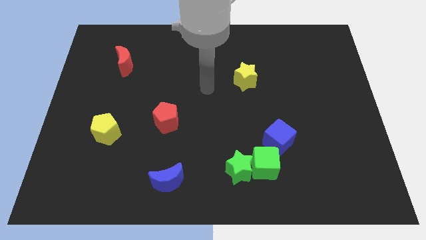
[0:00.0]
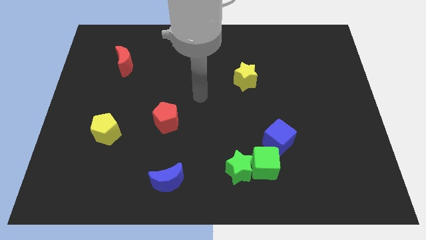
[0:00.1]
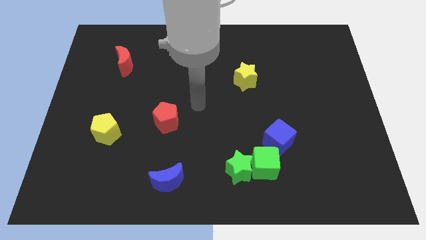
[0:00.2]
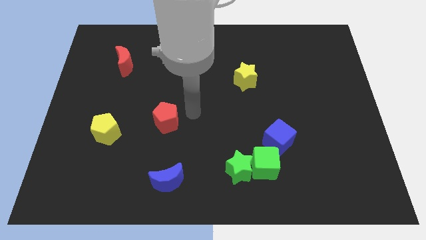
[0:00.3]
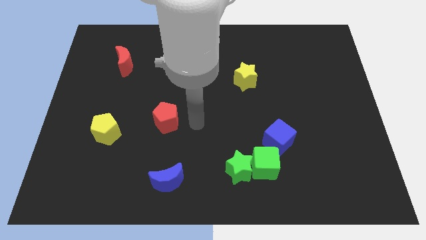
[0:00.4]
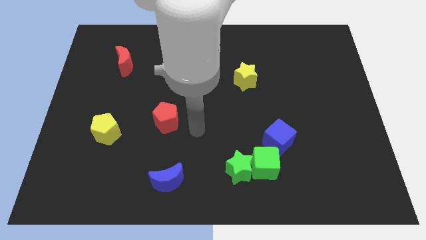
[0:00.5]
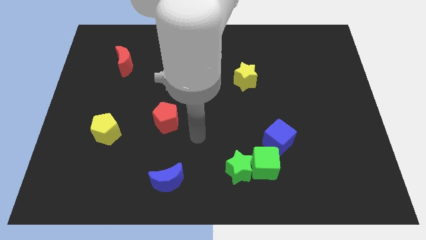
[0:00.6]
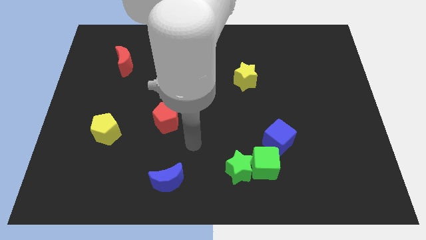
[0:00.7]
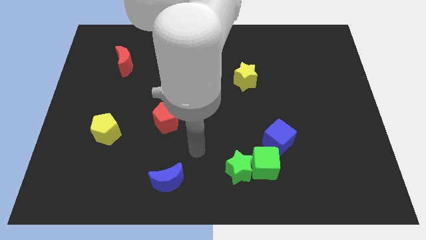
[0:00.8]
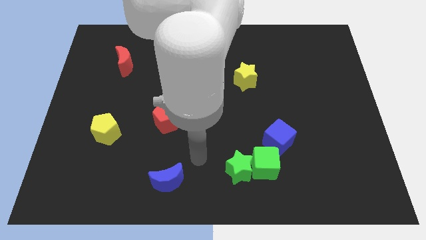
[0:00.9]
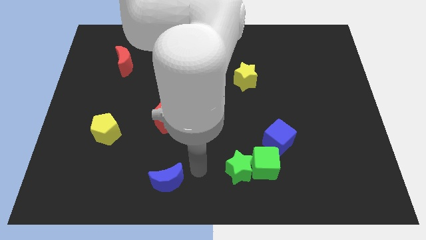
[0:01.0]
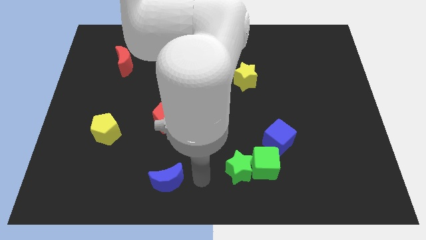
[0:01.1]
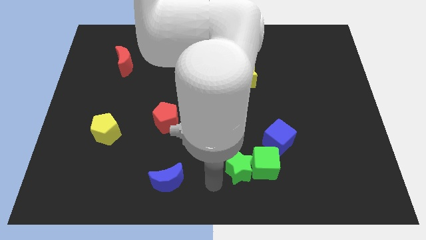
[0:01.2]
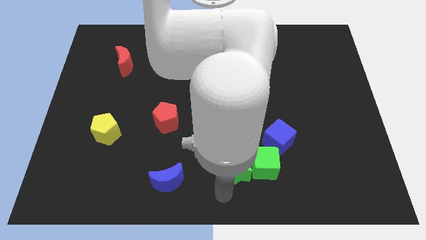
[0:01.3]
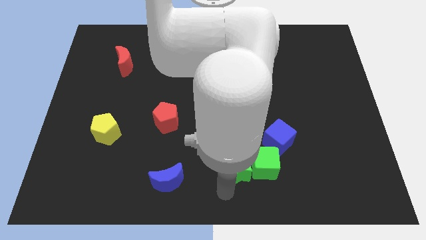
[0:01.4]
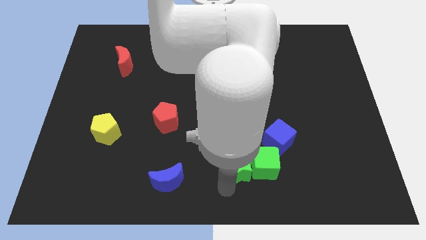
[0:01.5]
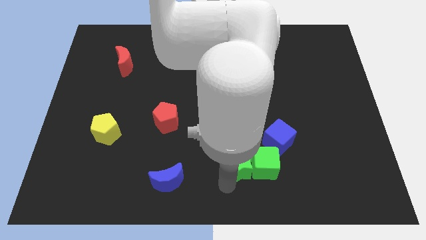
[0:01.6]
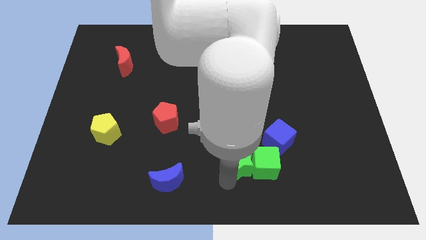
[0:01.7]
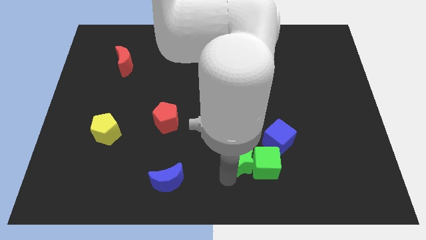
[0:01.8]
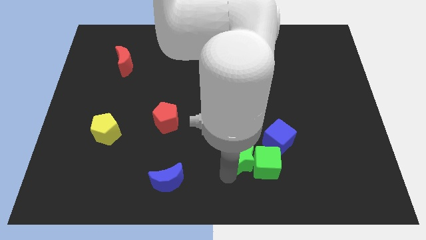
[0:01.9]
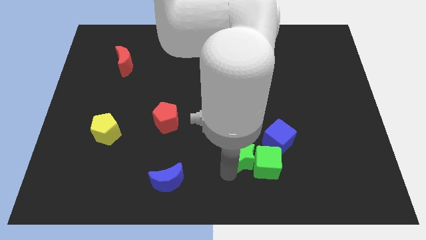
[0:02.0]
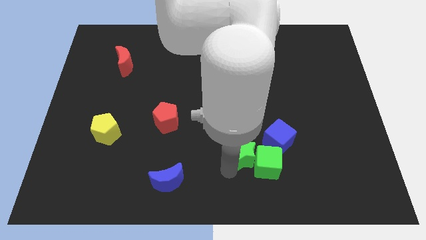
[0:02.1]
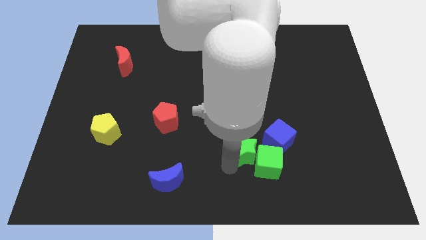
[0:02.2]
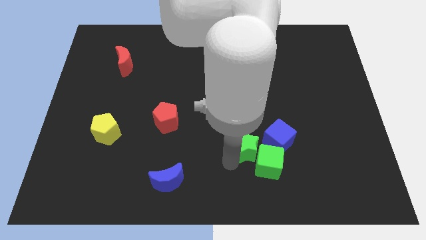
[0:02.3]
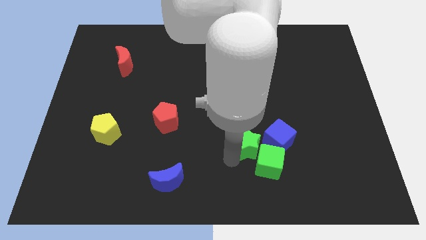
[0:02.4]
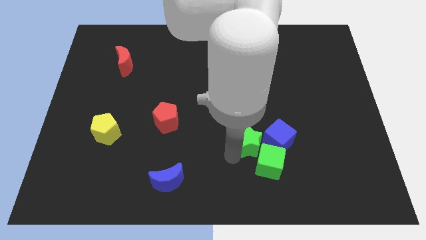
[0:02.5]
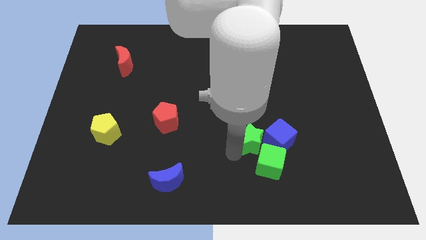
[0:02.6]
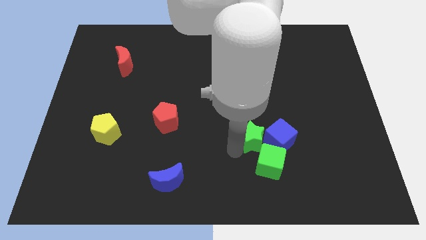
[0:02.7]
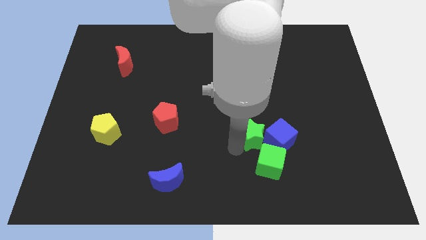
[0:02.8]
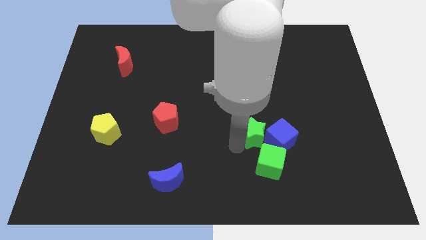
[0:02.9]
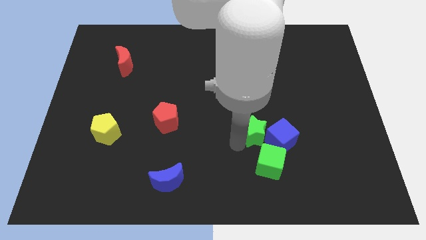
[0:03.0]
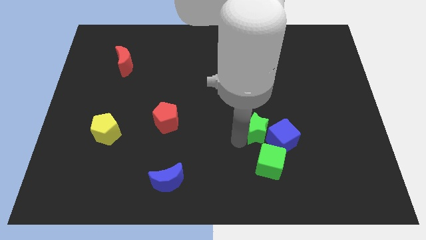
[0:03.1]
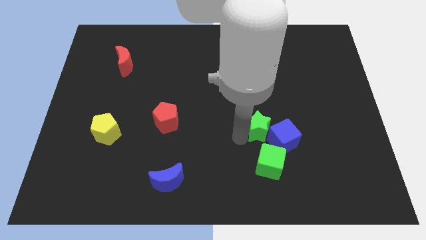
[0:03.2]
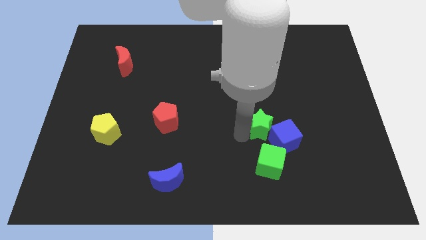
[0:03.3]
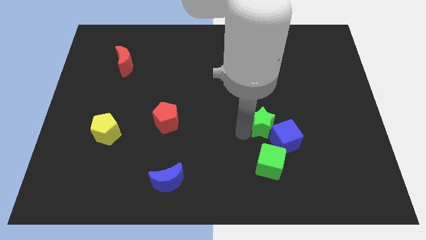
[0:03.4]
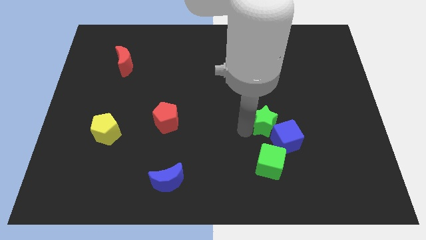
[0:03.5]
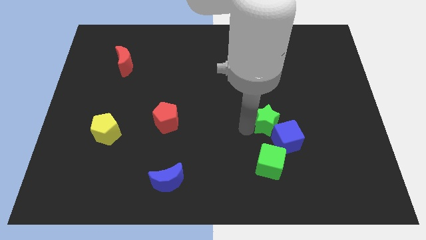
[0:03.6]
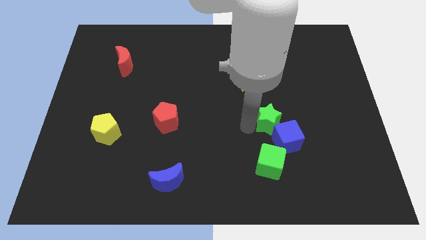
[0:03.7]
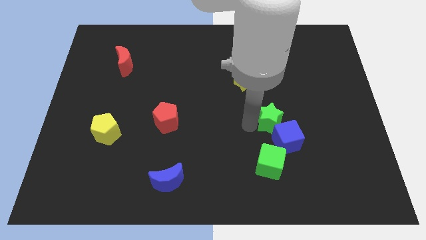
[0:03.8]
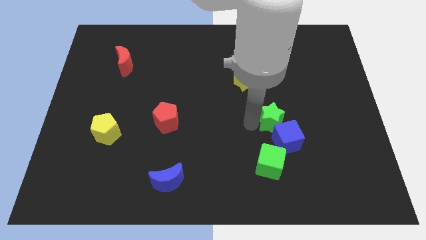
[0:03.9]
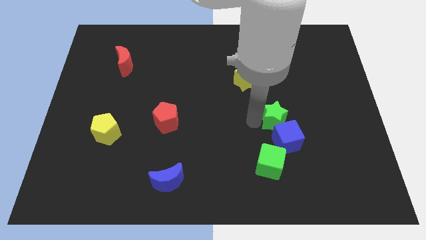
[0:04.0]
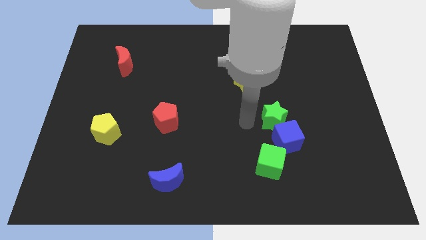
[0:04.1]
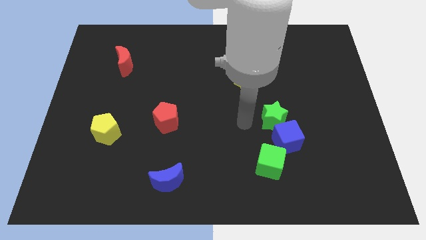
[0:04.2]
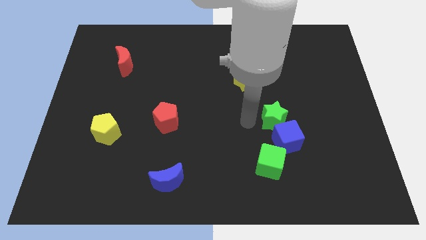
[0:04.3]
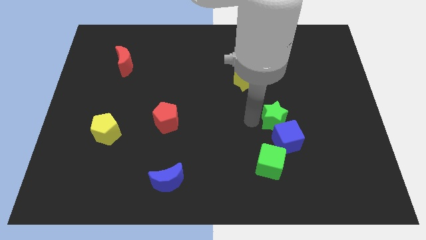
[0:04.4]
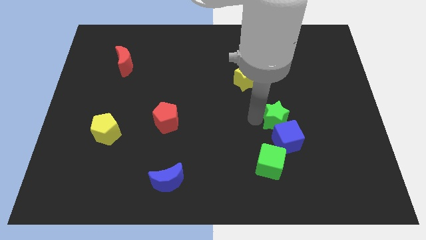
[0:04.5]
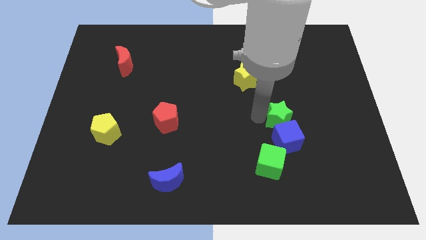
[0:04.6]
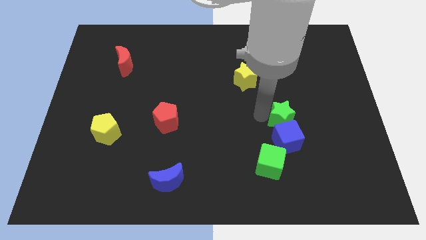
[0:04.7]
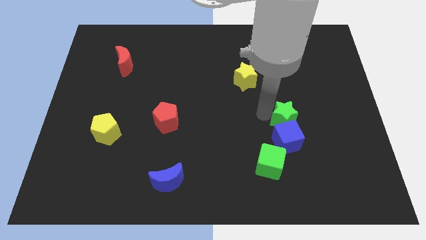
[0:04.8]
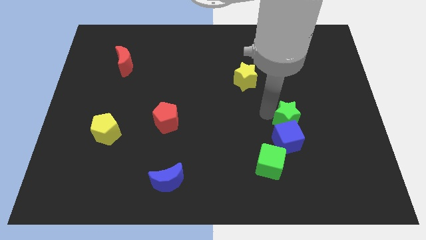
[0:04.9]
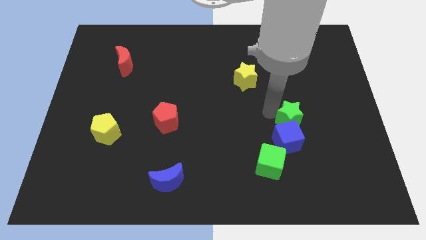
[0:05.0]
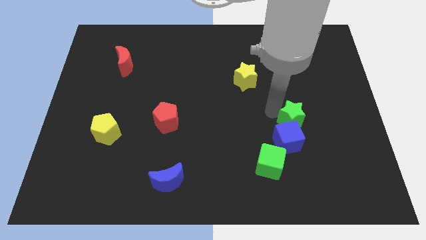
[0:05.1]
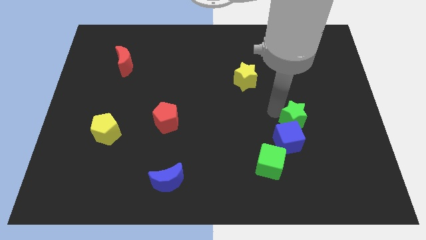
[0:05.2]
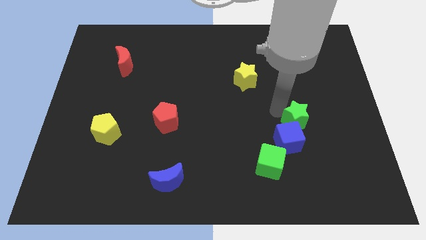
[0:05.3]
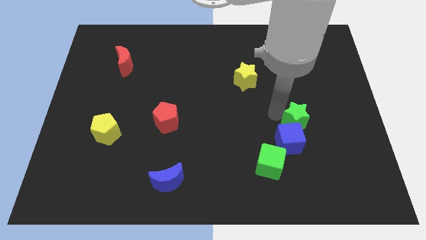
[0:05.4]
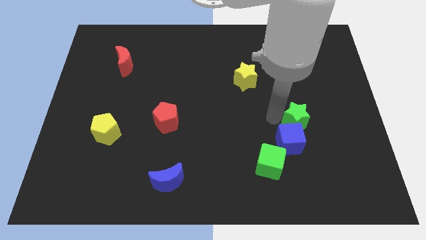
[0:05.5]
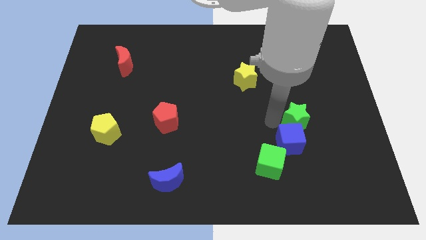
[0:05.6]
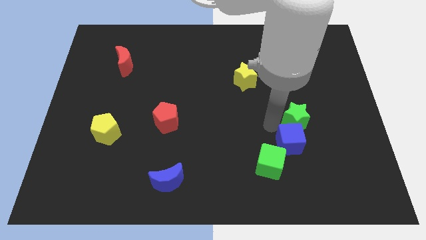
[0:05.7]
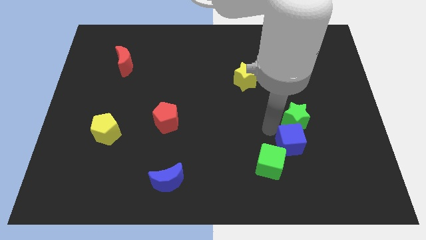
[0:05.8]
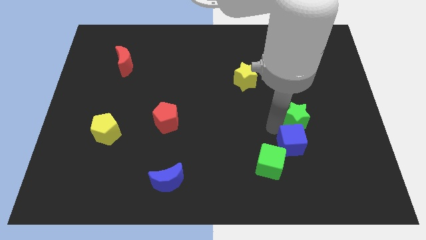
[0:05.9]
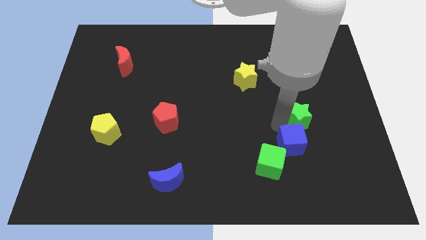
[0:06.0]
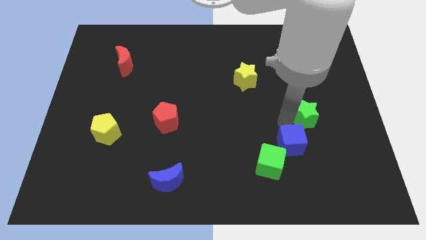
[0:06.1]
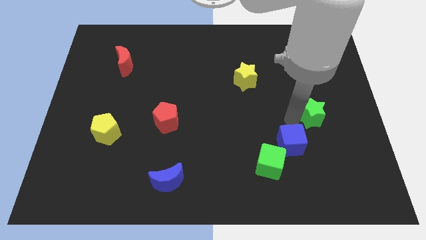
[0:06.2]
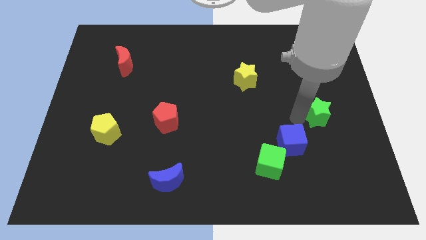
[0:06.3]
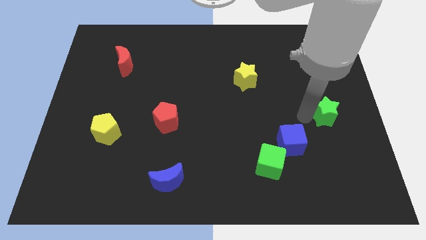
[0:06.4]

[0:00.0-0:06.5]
slide the green star to the right side of the board
